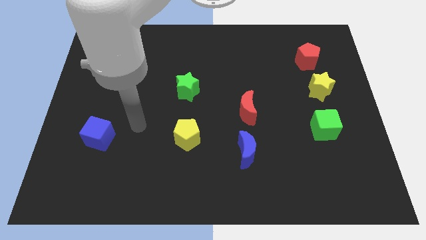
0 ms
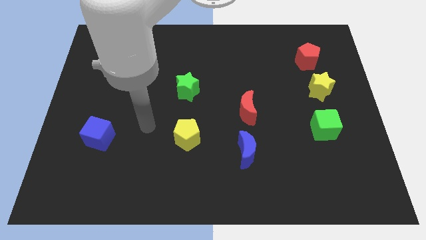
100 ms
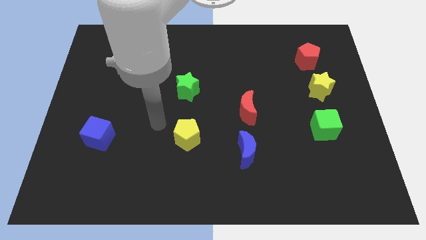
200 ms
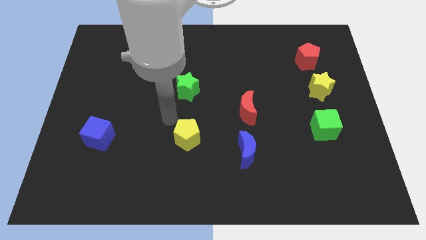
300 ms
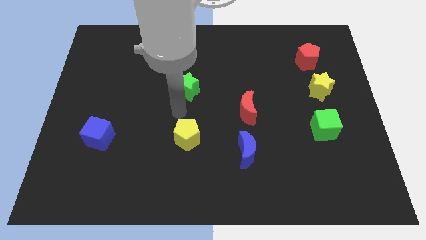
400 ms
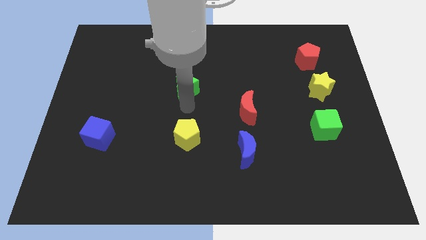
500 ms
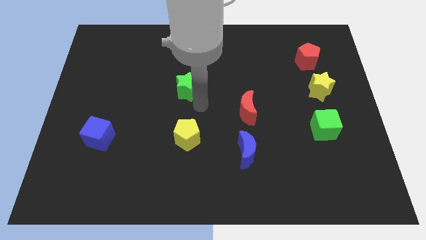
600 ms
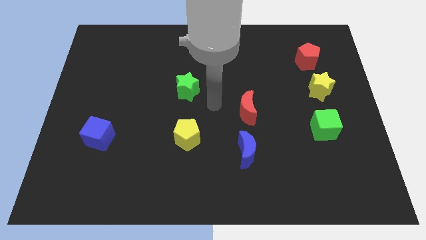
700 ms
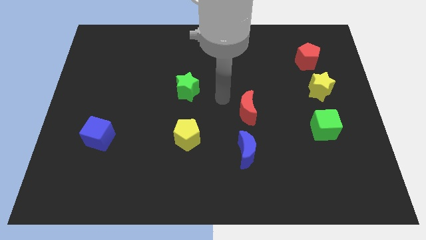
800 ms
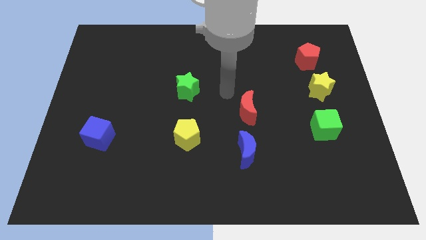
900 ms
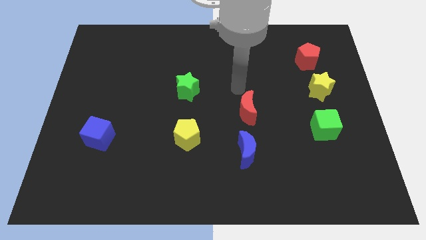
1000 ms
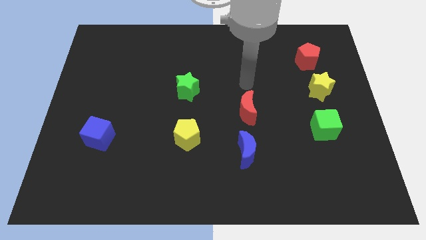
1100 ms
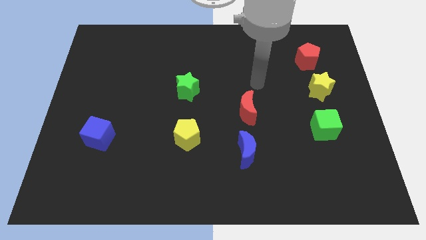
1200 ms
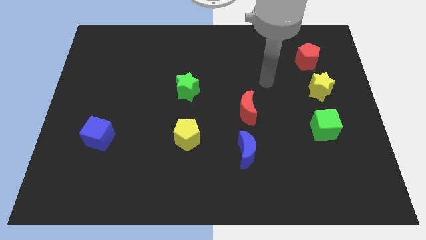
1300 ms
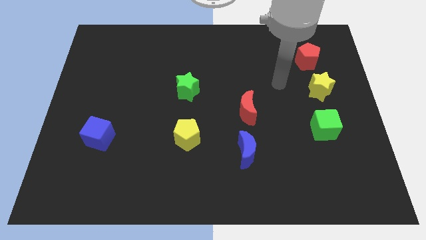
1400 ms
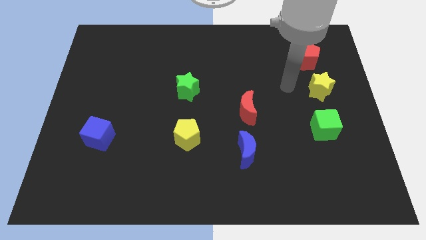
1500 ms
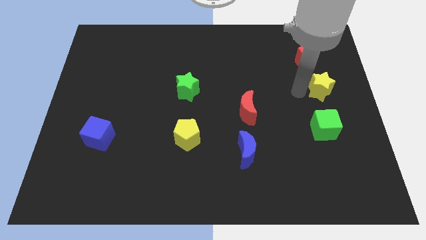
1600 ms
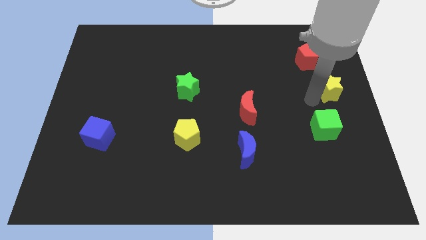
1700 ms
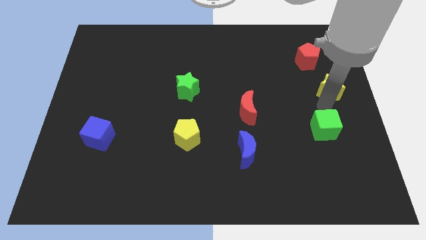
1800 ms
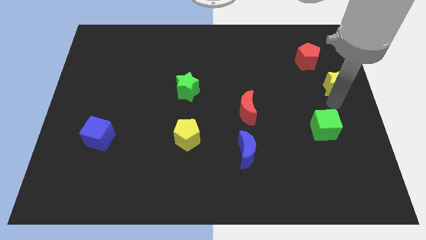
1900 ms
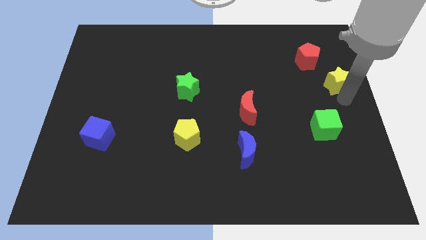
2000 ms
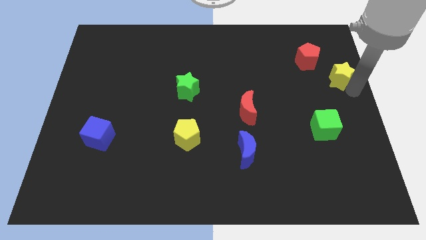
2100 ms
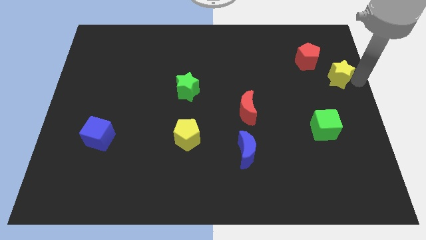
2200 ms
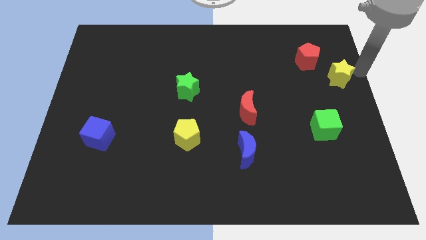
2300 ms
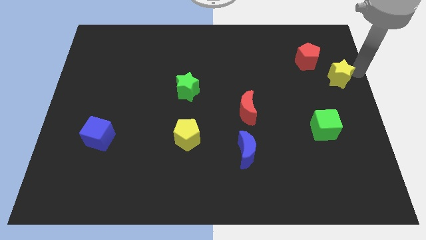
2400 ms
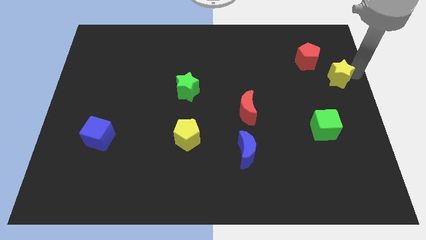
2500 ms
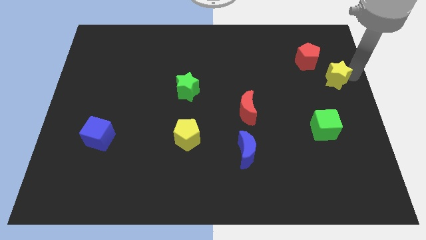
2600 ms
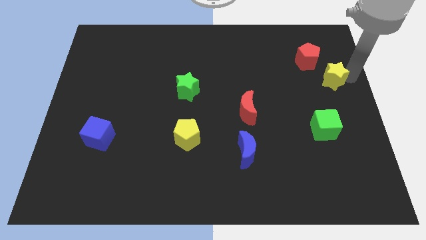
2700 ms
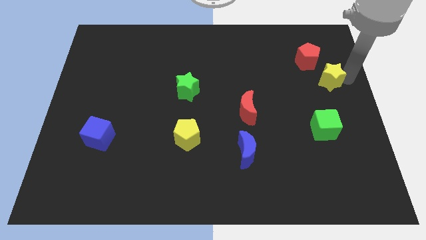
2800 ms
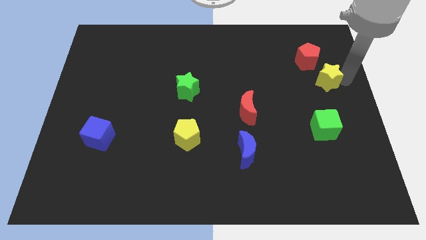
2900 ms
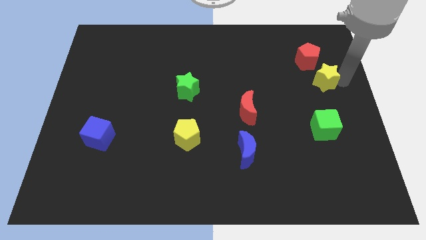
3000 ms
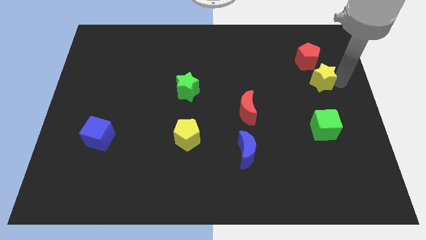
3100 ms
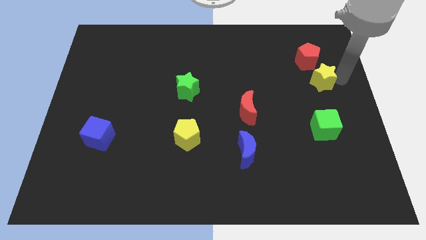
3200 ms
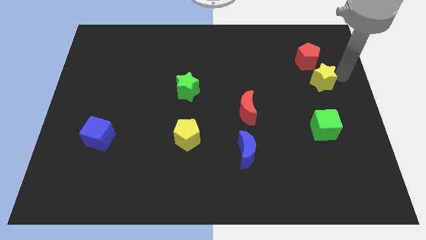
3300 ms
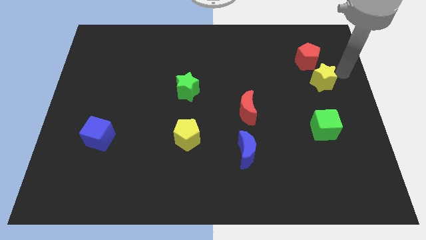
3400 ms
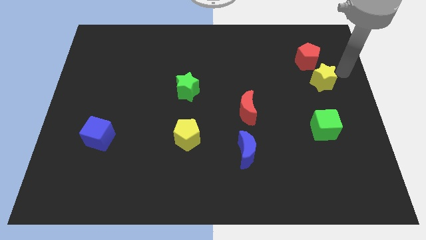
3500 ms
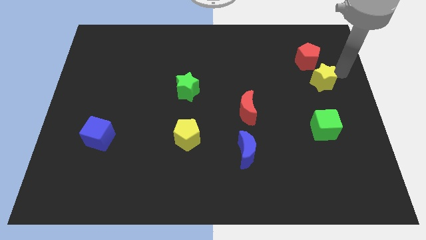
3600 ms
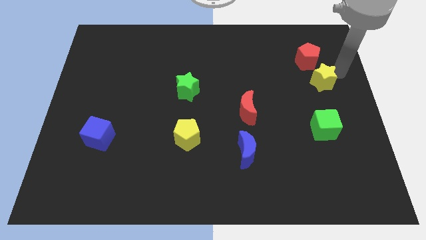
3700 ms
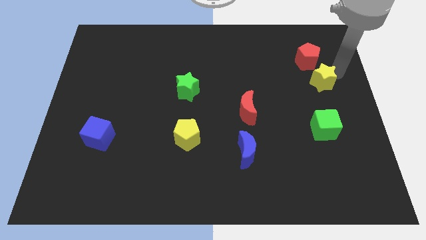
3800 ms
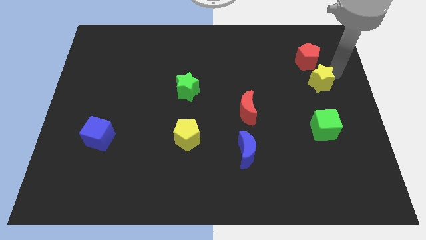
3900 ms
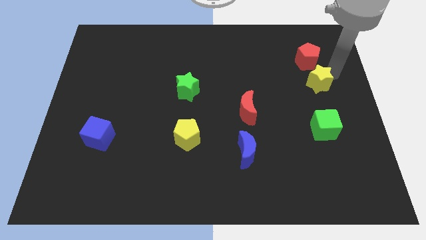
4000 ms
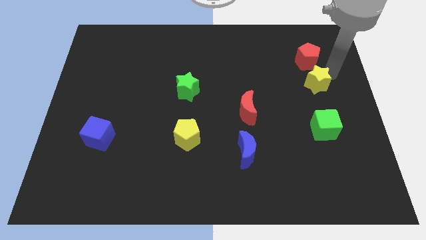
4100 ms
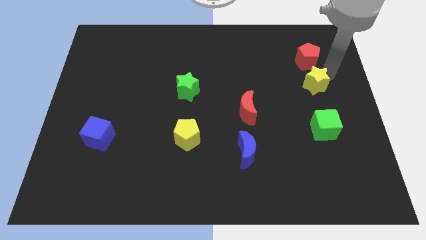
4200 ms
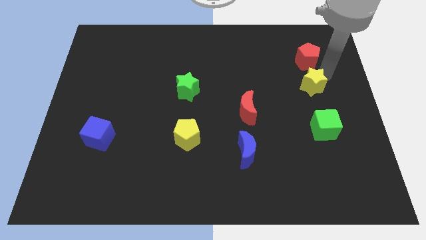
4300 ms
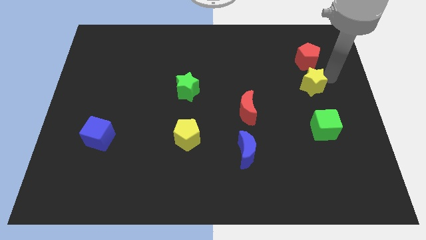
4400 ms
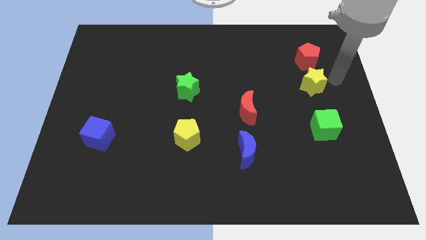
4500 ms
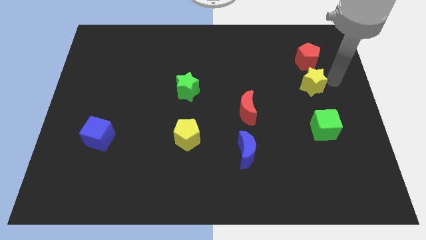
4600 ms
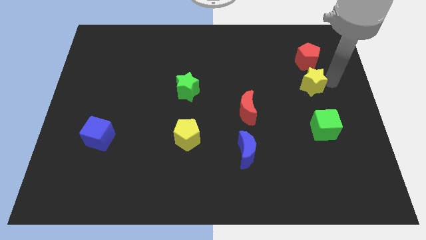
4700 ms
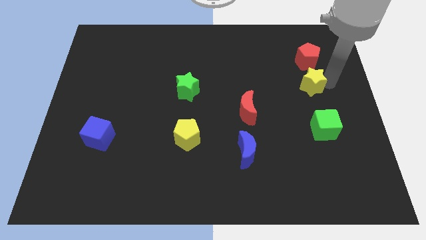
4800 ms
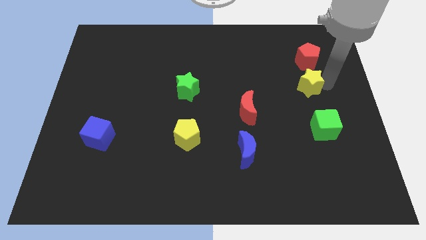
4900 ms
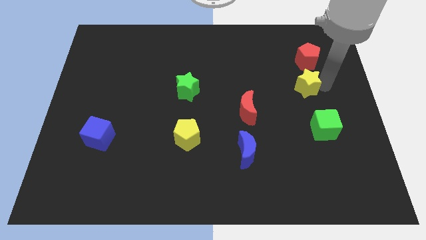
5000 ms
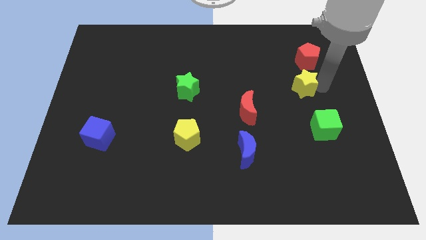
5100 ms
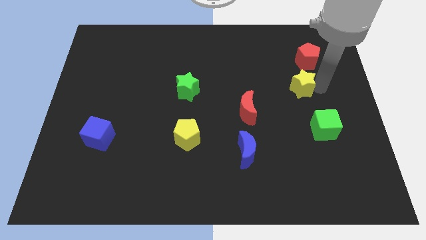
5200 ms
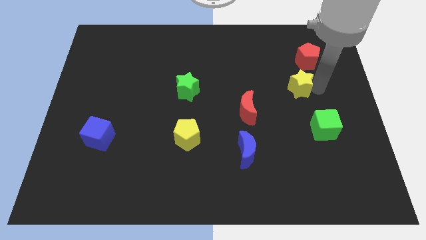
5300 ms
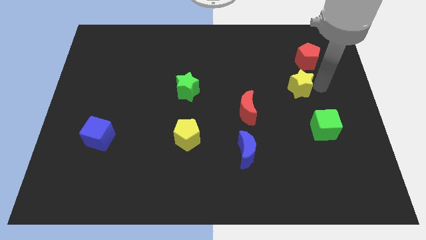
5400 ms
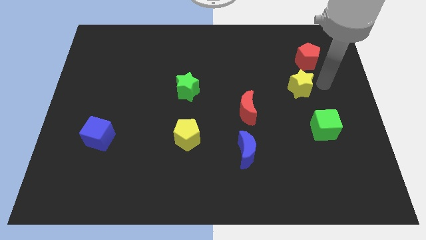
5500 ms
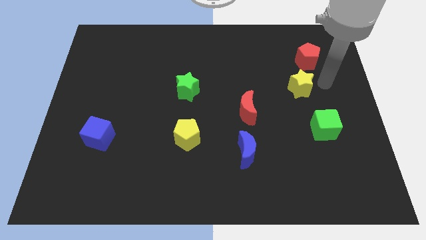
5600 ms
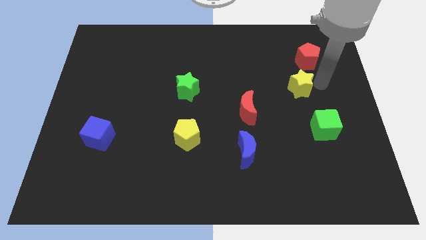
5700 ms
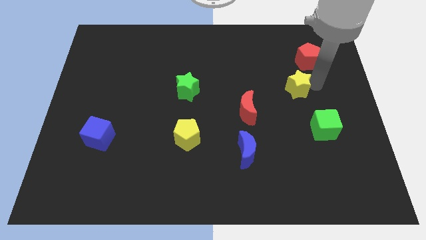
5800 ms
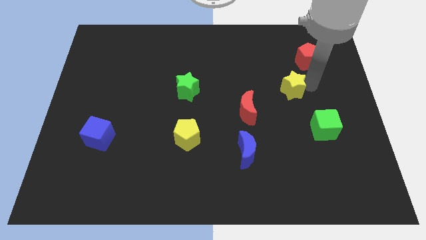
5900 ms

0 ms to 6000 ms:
slide the yellow star somewhat to the left

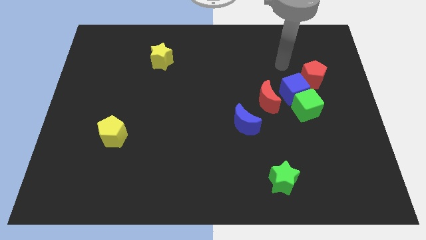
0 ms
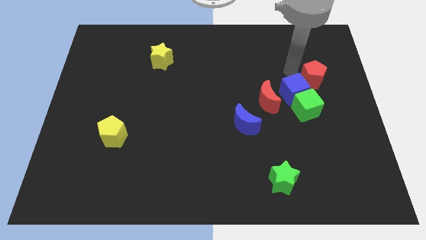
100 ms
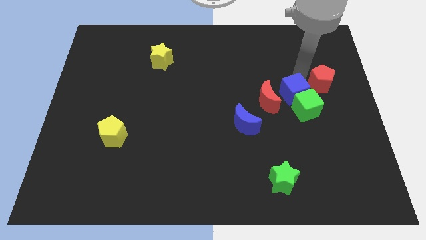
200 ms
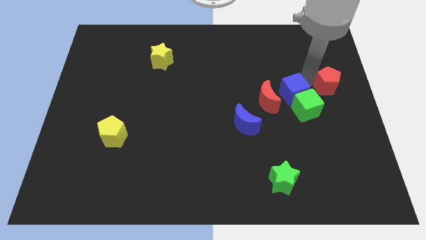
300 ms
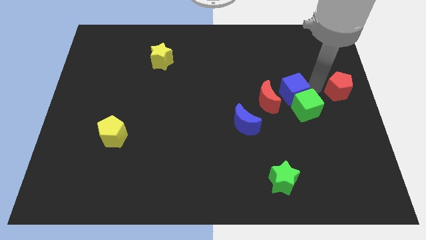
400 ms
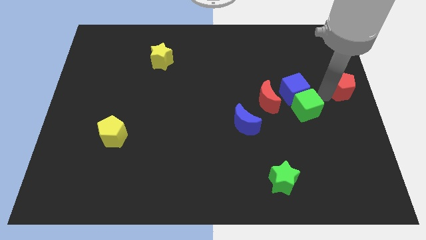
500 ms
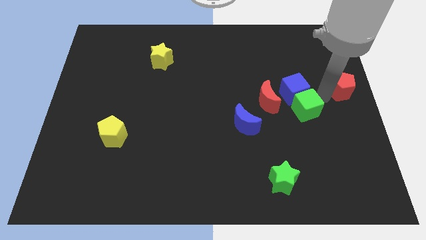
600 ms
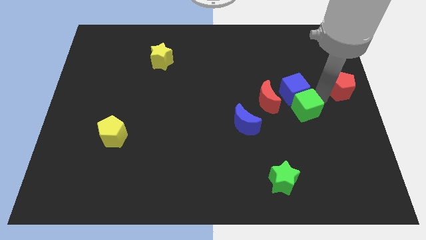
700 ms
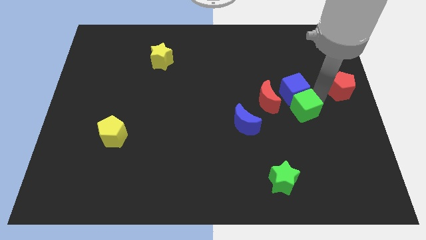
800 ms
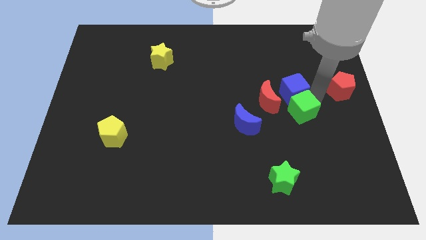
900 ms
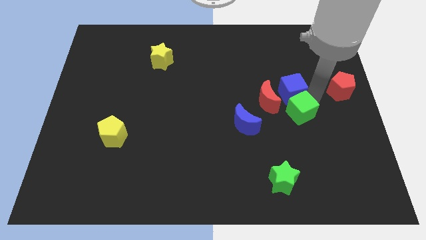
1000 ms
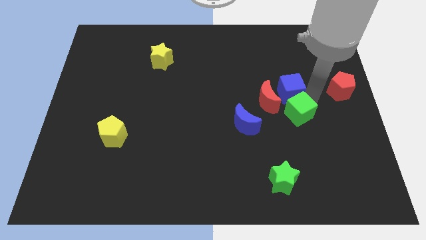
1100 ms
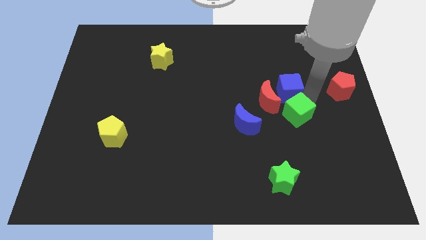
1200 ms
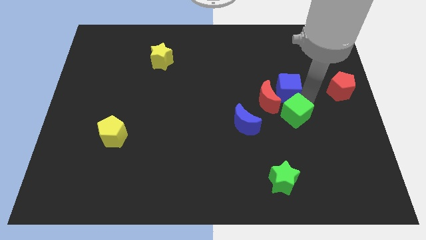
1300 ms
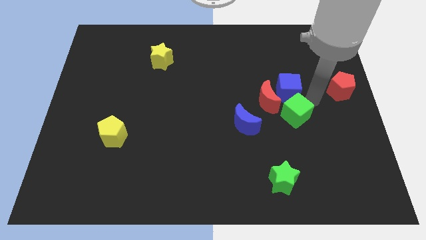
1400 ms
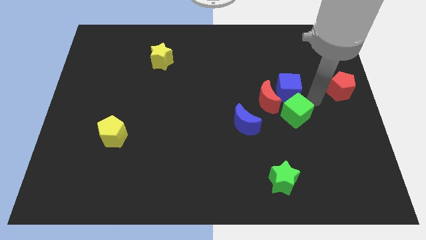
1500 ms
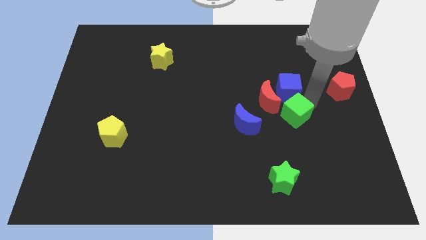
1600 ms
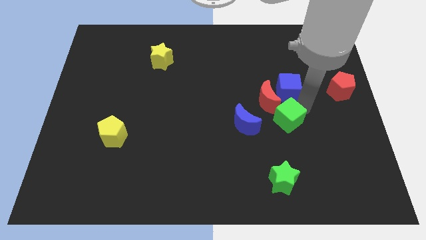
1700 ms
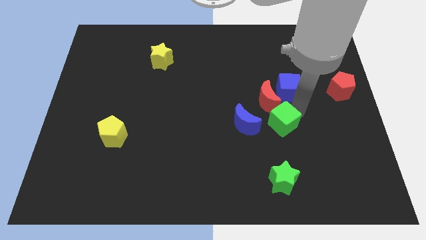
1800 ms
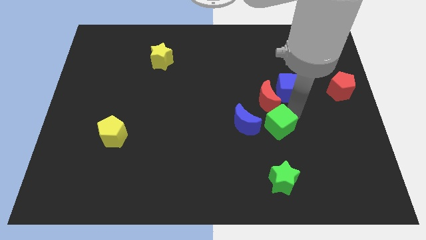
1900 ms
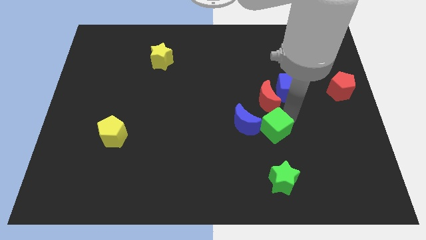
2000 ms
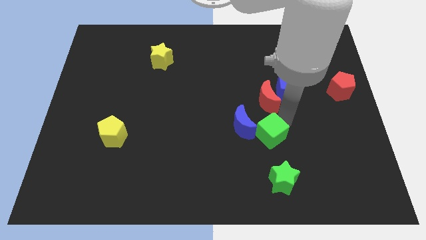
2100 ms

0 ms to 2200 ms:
slide the green cube to the left a little bit
